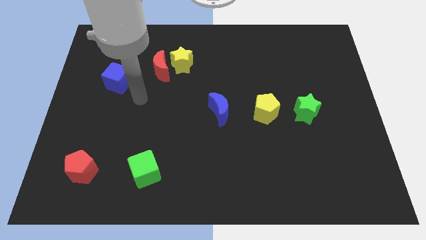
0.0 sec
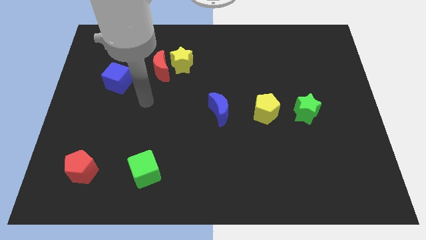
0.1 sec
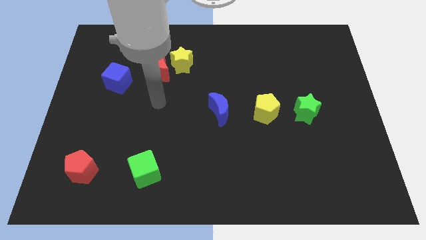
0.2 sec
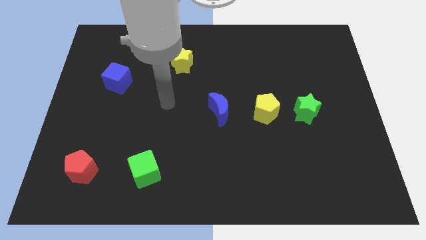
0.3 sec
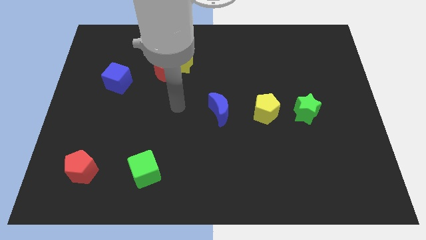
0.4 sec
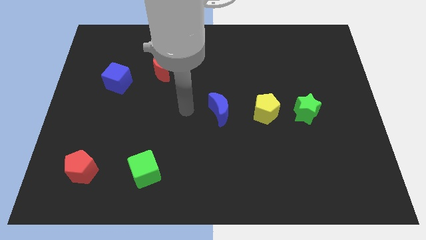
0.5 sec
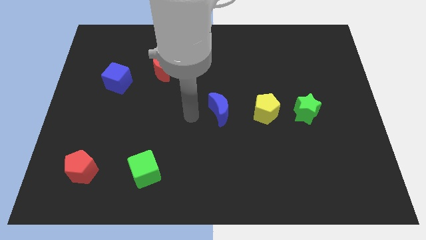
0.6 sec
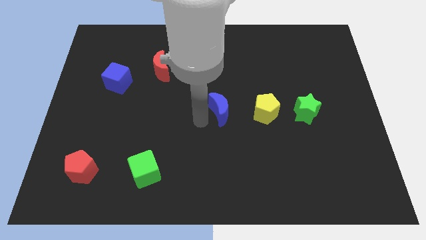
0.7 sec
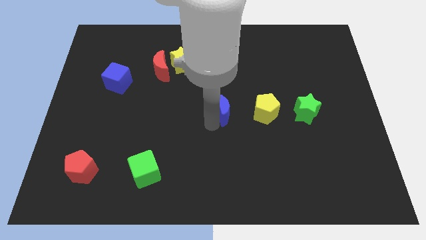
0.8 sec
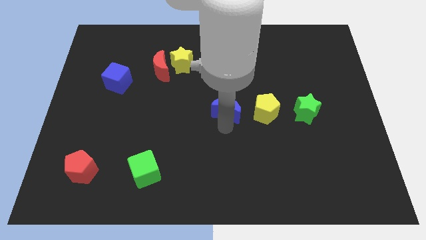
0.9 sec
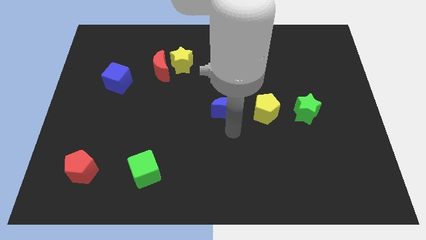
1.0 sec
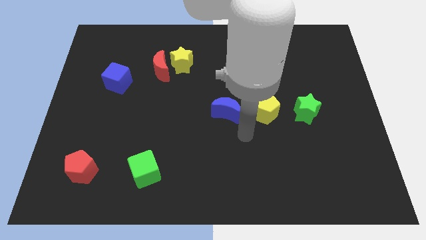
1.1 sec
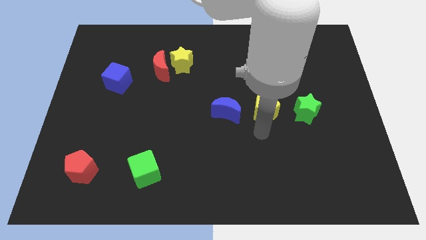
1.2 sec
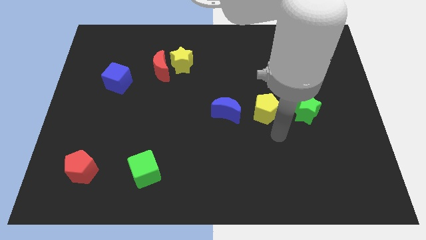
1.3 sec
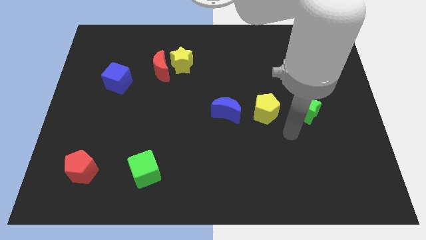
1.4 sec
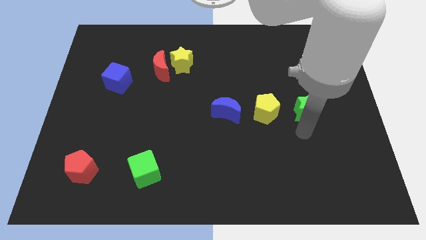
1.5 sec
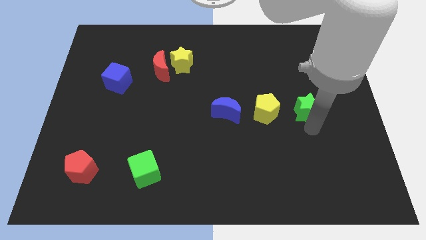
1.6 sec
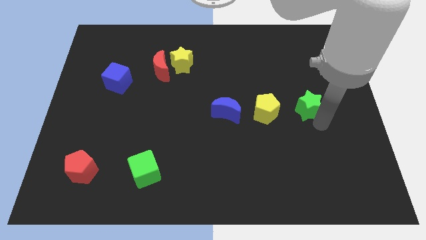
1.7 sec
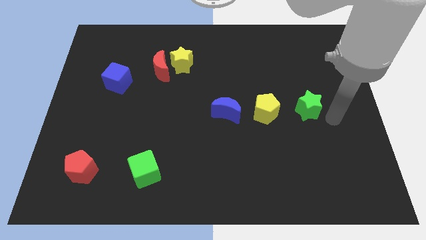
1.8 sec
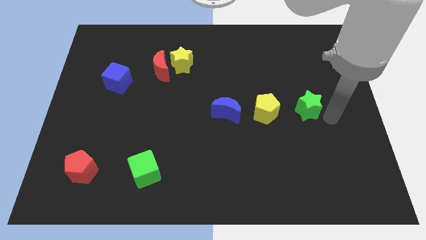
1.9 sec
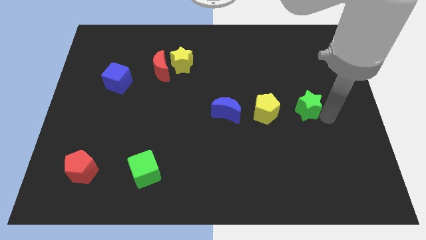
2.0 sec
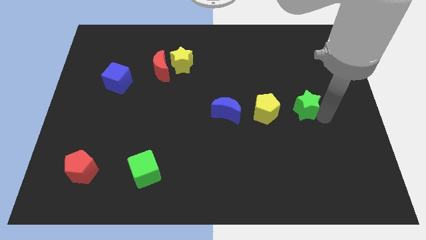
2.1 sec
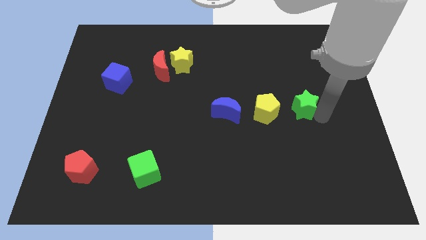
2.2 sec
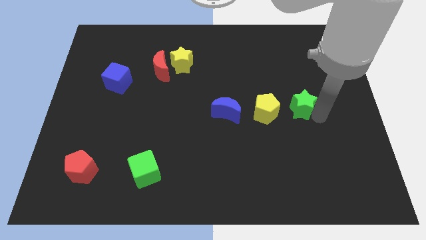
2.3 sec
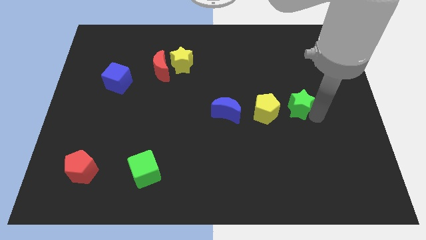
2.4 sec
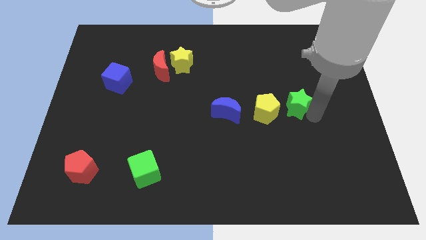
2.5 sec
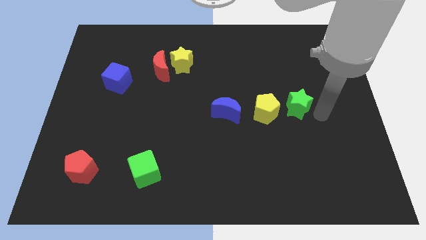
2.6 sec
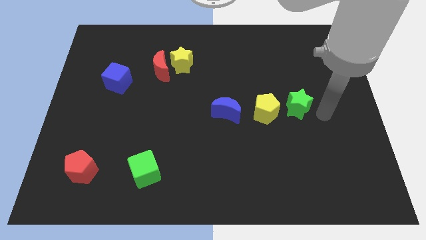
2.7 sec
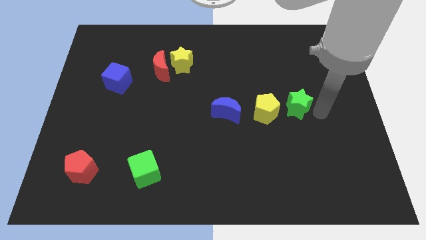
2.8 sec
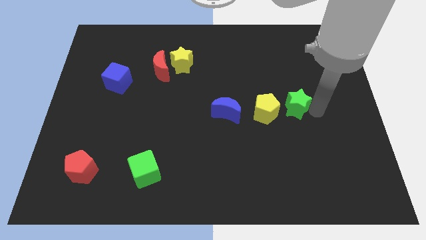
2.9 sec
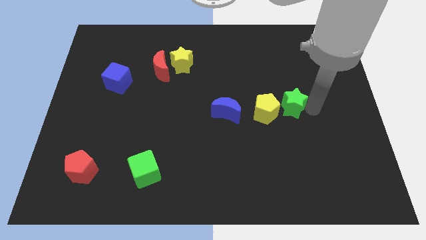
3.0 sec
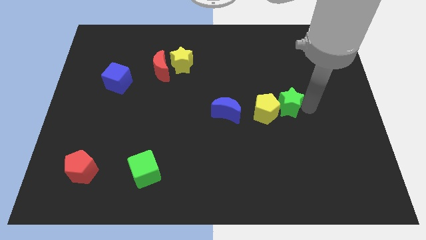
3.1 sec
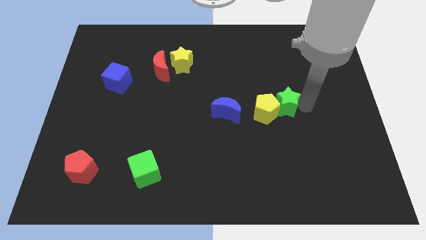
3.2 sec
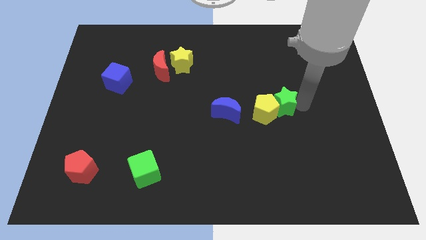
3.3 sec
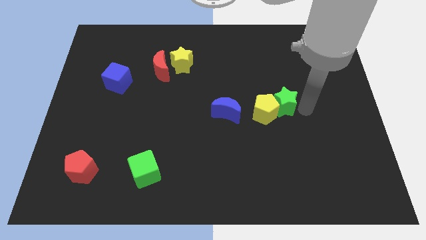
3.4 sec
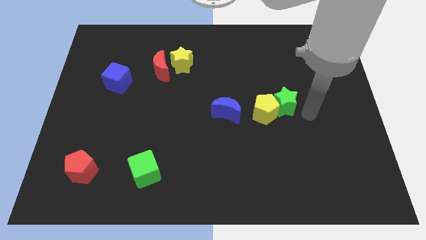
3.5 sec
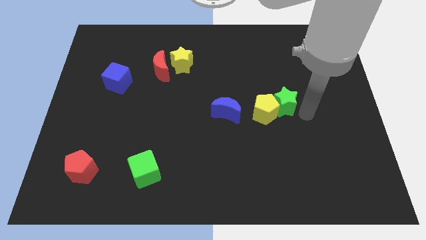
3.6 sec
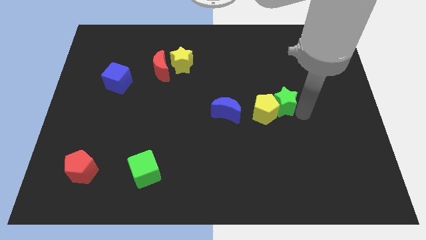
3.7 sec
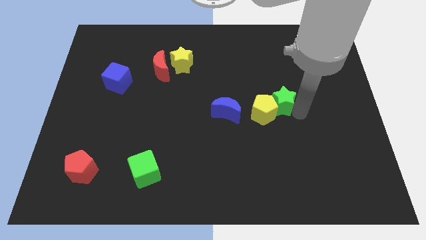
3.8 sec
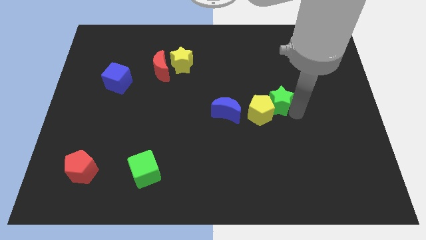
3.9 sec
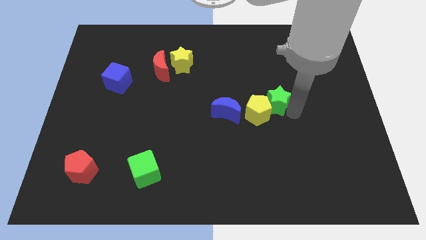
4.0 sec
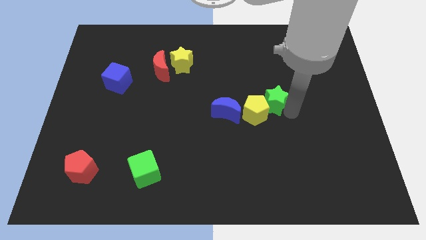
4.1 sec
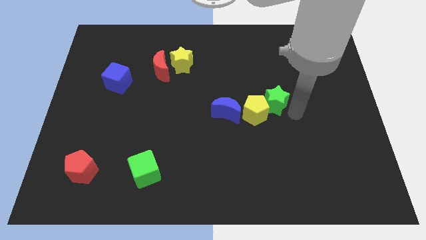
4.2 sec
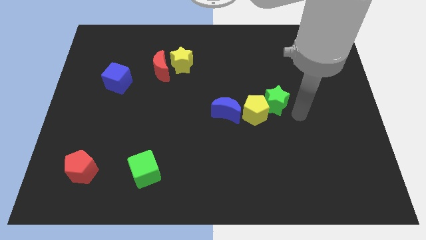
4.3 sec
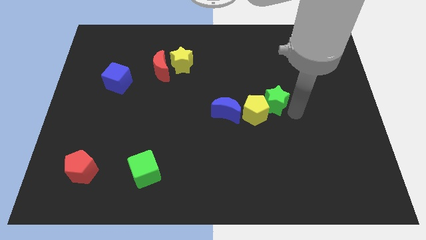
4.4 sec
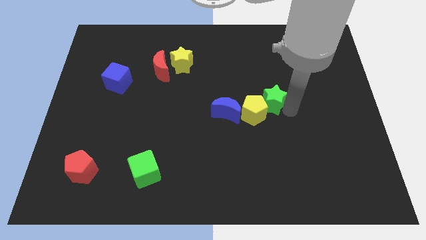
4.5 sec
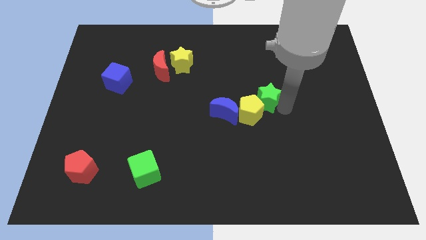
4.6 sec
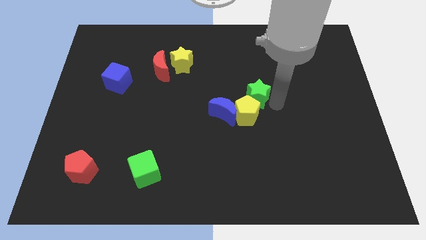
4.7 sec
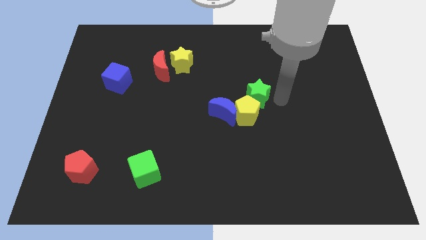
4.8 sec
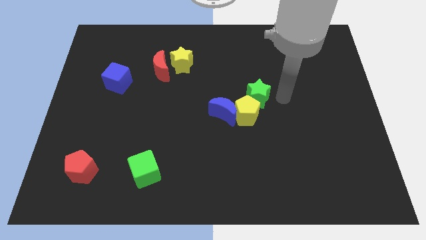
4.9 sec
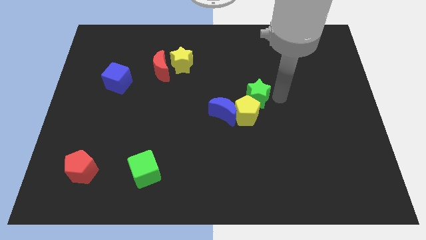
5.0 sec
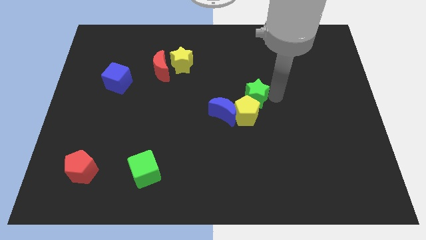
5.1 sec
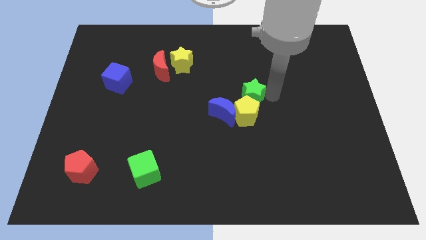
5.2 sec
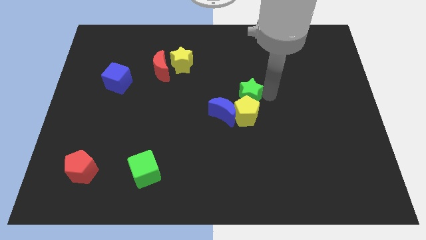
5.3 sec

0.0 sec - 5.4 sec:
push the green star to the top left side of the yellow pentagon
